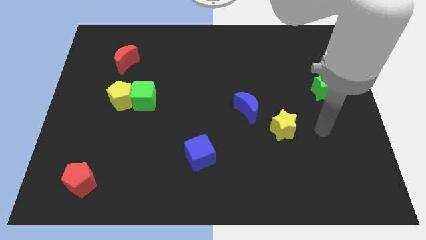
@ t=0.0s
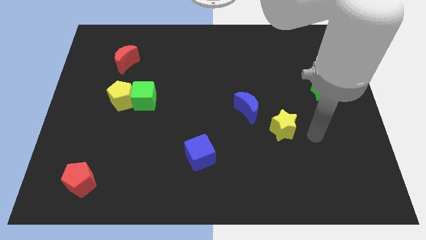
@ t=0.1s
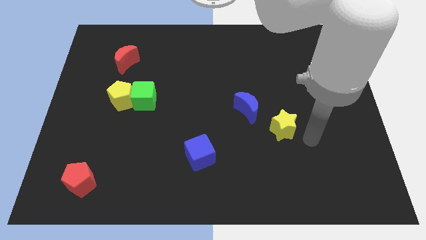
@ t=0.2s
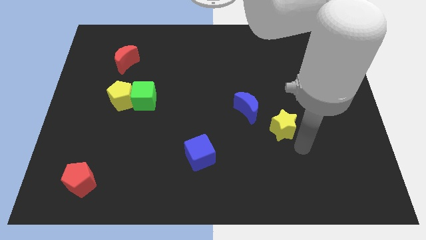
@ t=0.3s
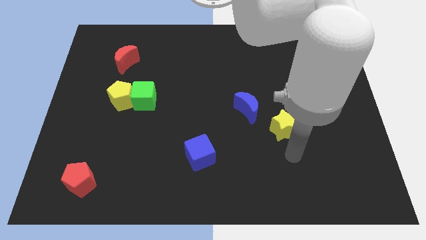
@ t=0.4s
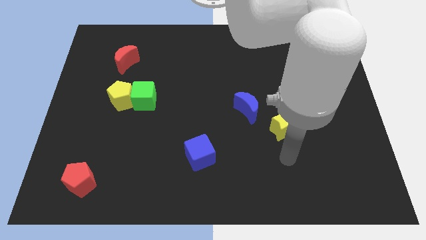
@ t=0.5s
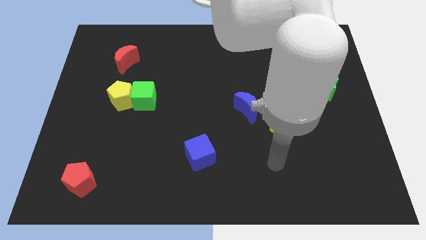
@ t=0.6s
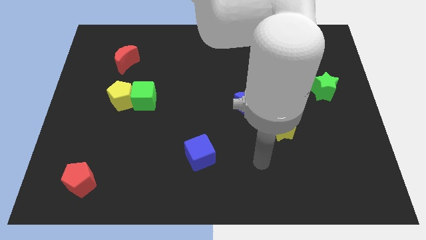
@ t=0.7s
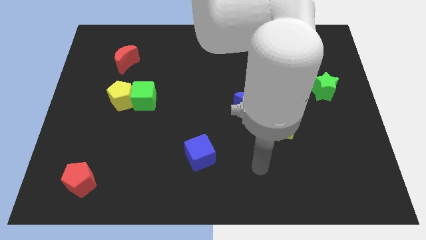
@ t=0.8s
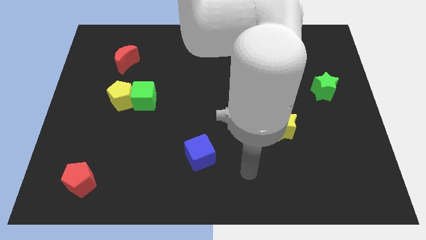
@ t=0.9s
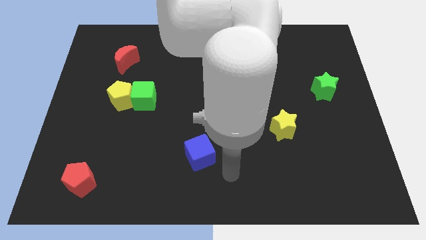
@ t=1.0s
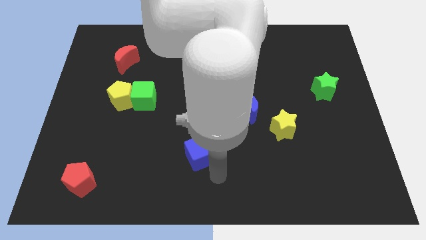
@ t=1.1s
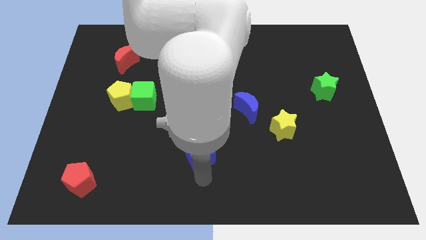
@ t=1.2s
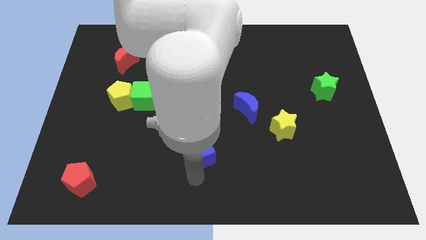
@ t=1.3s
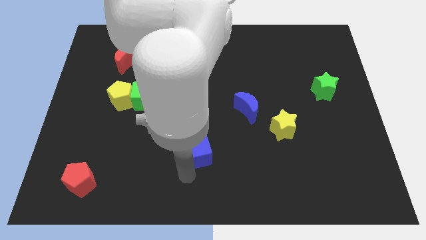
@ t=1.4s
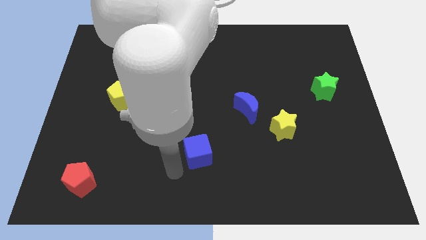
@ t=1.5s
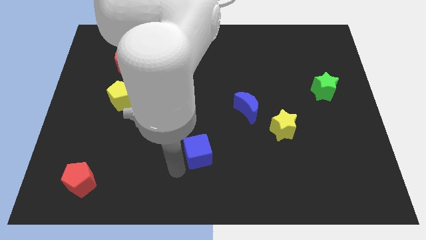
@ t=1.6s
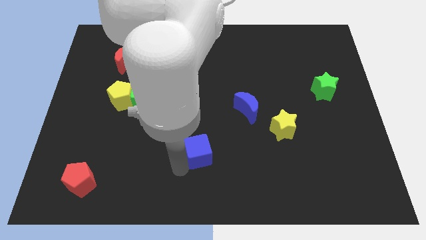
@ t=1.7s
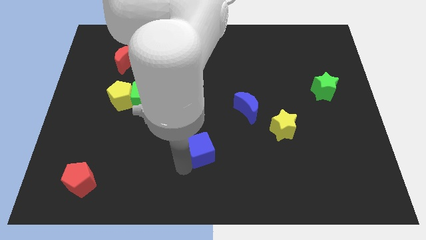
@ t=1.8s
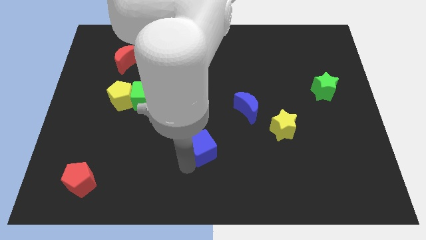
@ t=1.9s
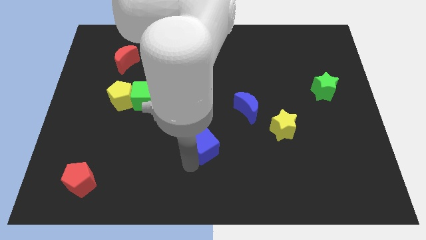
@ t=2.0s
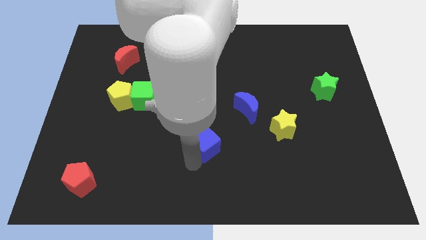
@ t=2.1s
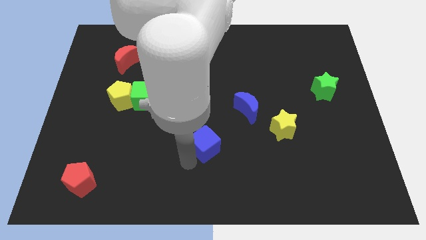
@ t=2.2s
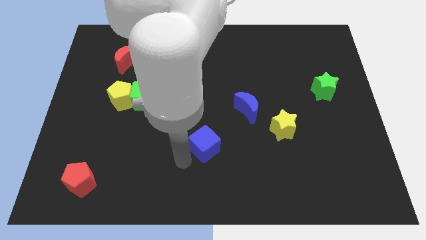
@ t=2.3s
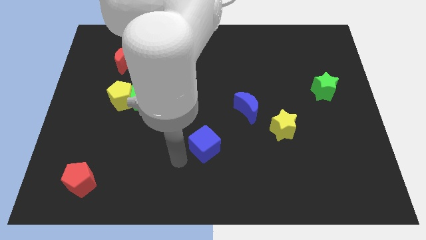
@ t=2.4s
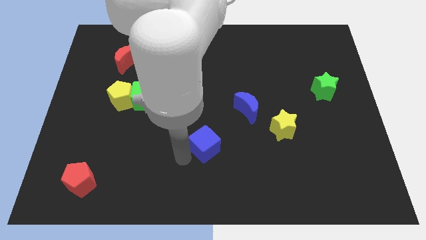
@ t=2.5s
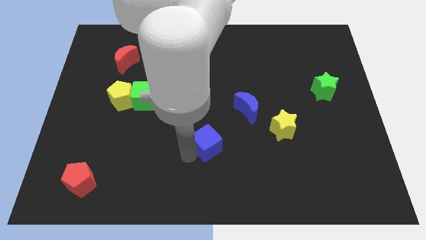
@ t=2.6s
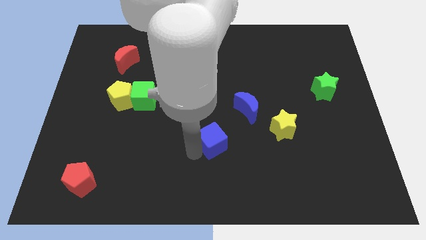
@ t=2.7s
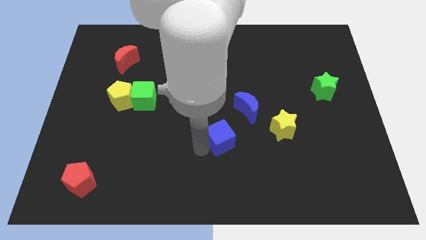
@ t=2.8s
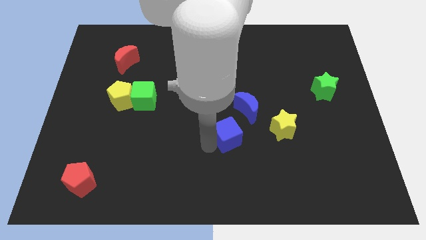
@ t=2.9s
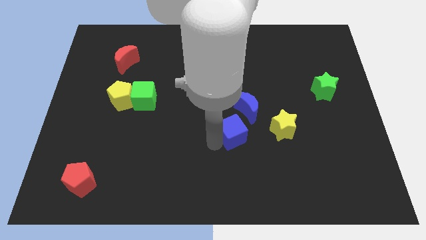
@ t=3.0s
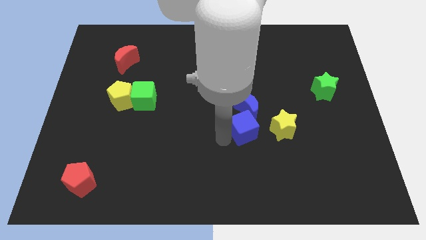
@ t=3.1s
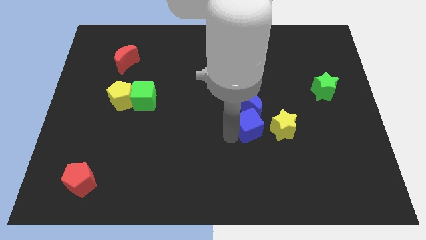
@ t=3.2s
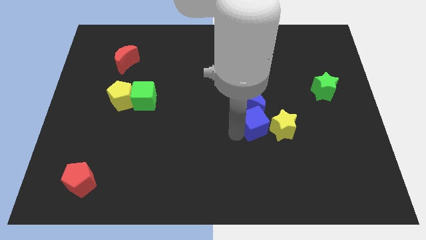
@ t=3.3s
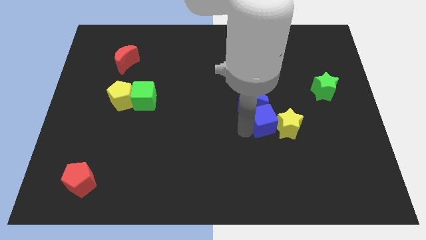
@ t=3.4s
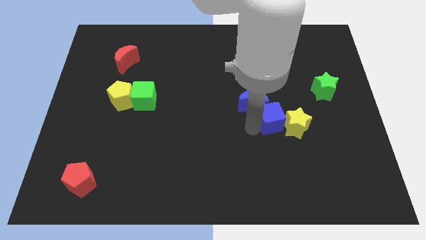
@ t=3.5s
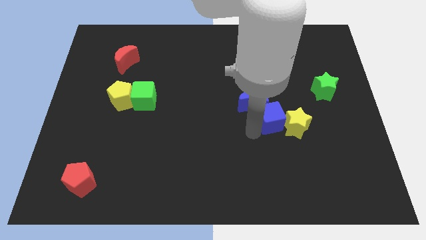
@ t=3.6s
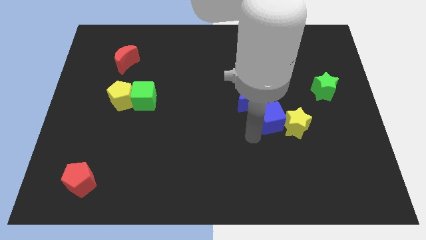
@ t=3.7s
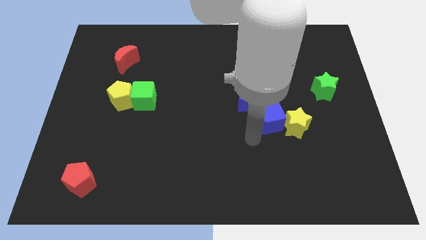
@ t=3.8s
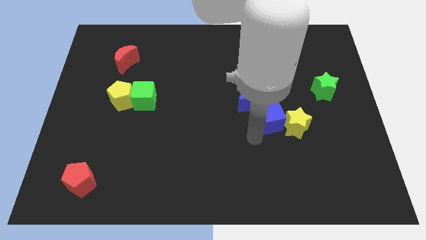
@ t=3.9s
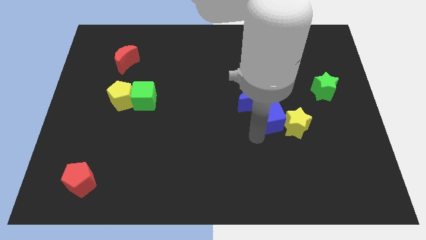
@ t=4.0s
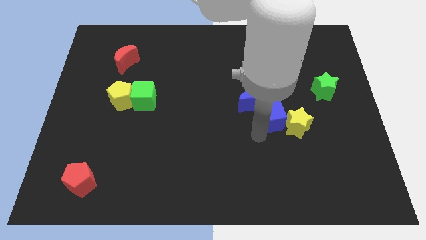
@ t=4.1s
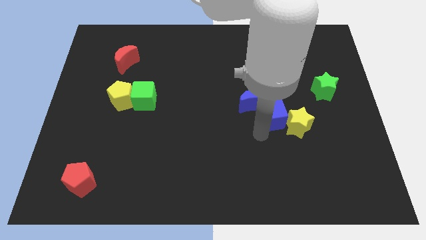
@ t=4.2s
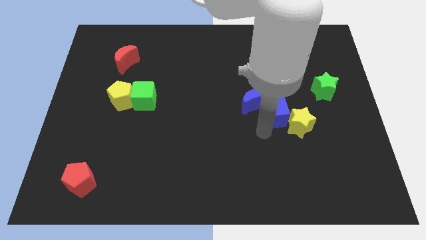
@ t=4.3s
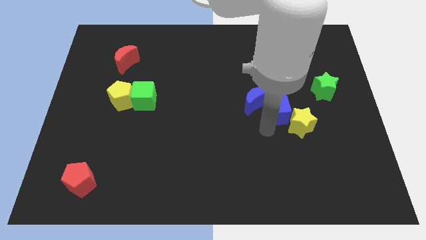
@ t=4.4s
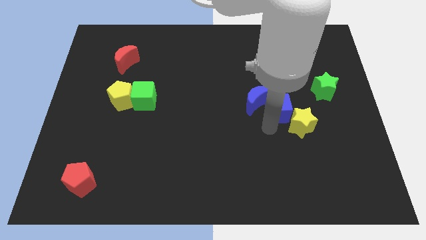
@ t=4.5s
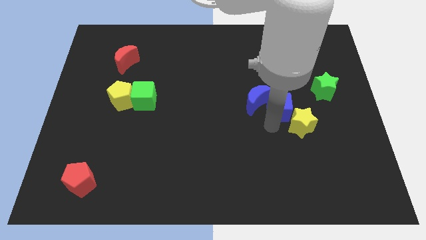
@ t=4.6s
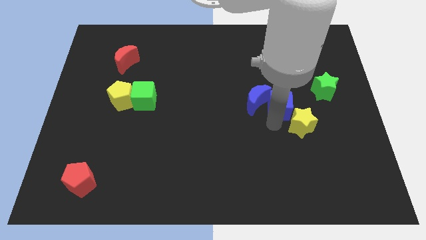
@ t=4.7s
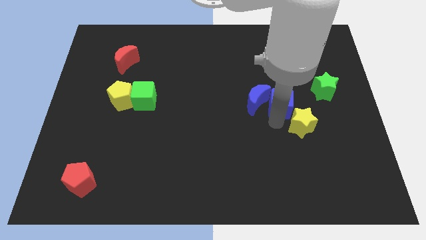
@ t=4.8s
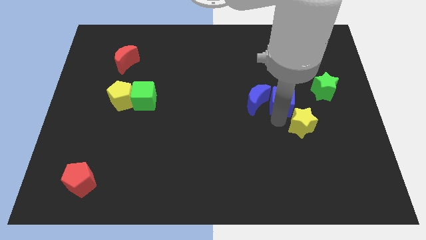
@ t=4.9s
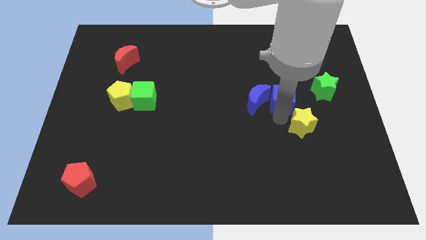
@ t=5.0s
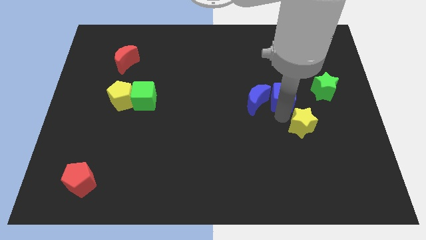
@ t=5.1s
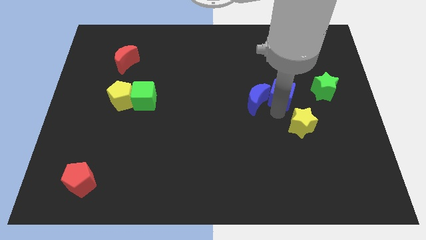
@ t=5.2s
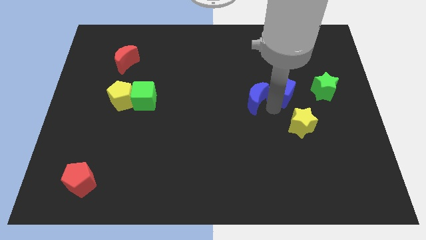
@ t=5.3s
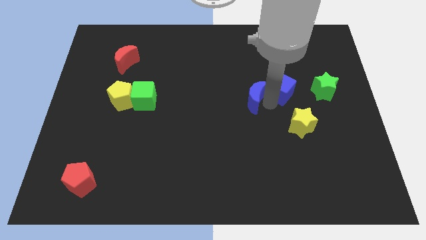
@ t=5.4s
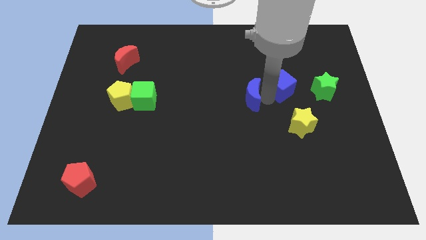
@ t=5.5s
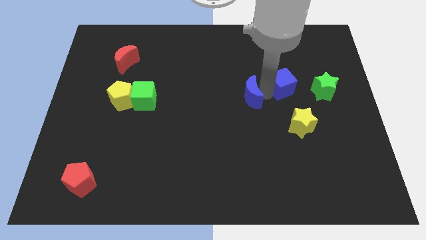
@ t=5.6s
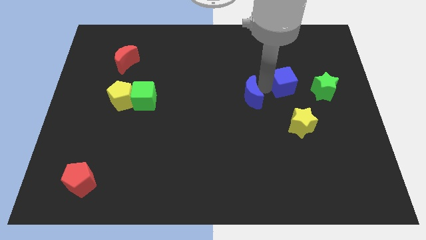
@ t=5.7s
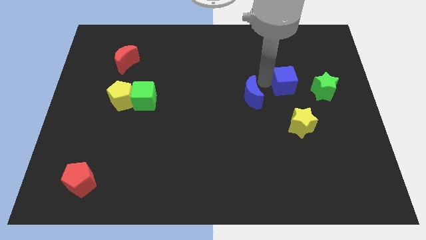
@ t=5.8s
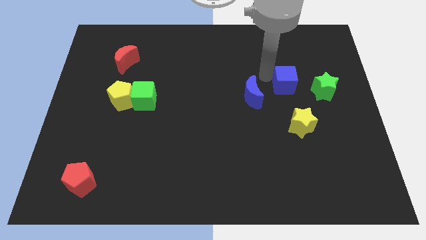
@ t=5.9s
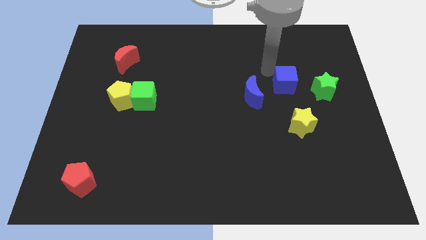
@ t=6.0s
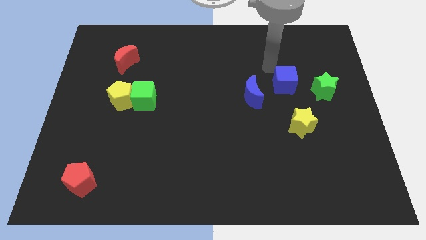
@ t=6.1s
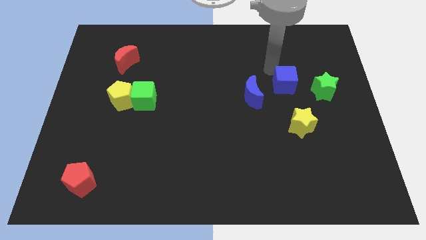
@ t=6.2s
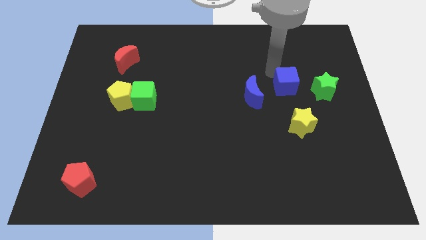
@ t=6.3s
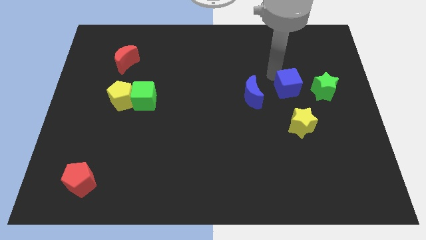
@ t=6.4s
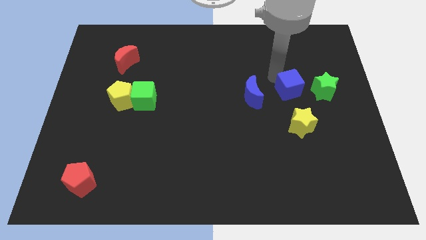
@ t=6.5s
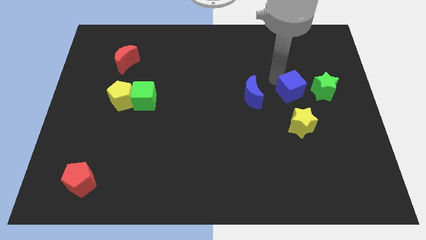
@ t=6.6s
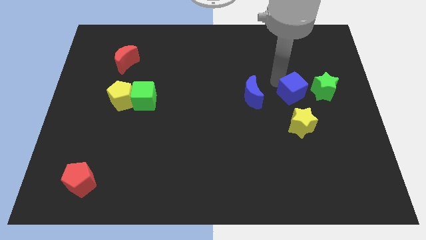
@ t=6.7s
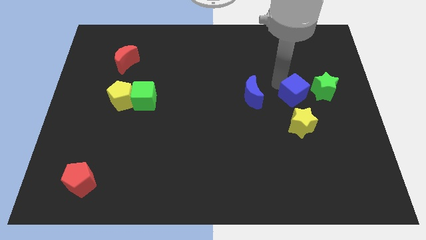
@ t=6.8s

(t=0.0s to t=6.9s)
push the blue cube to the bottom left of the green star

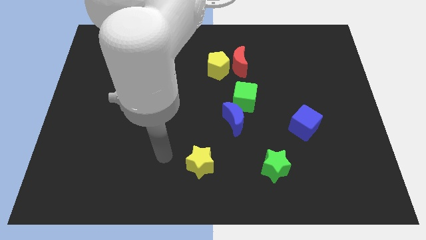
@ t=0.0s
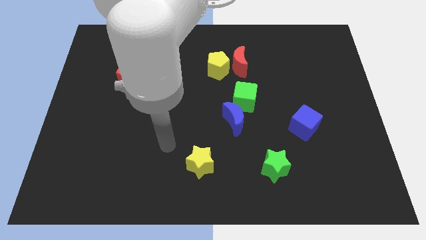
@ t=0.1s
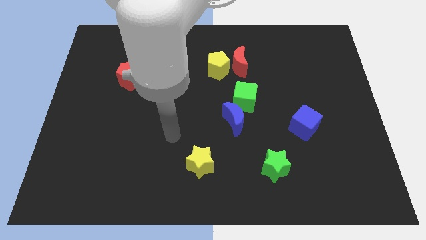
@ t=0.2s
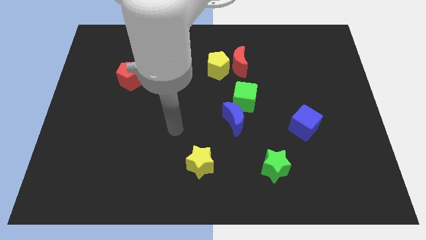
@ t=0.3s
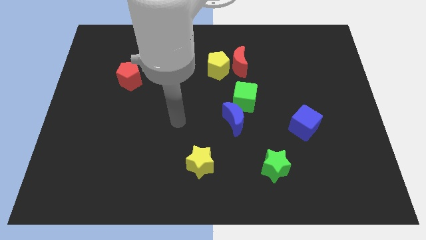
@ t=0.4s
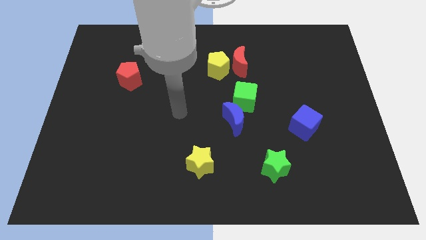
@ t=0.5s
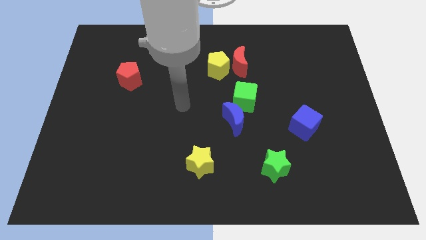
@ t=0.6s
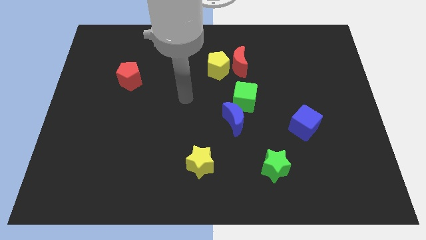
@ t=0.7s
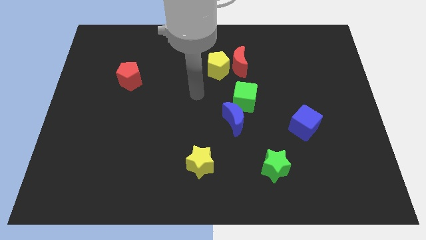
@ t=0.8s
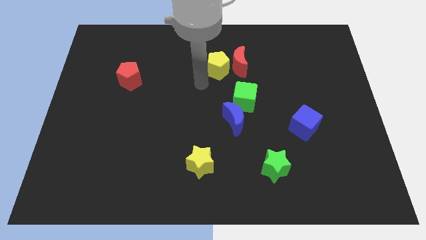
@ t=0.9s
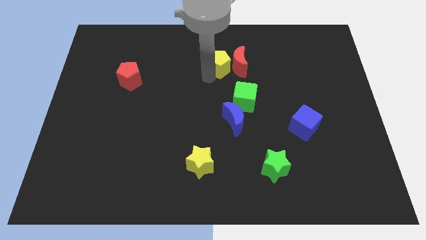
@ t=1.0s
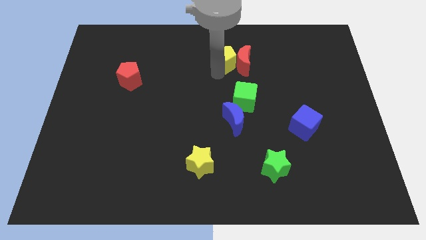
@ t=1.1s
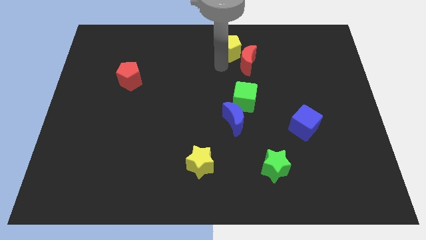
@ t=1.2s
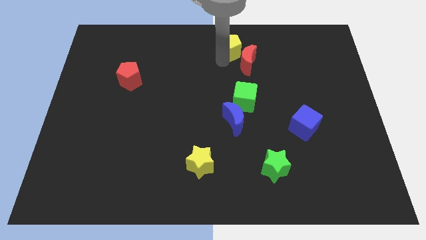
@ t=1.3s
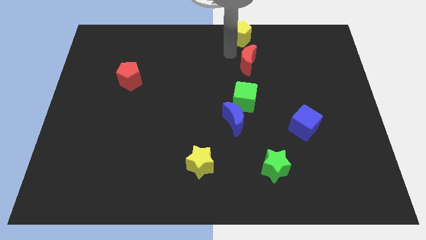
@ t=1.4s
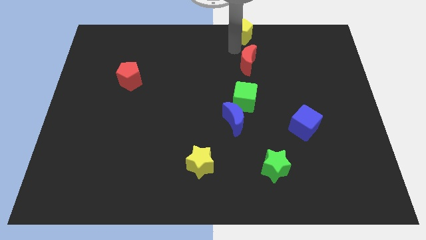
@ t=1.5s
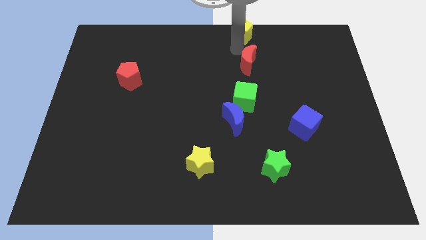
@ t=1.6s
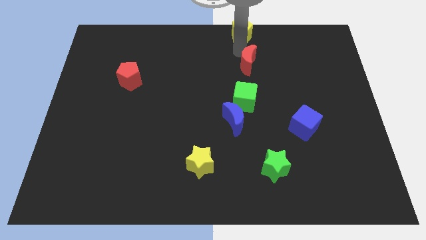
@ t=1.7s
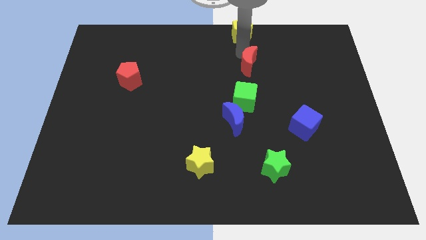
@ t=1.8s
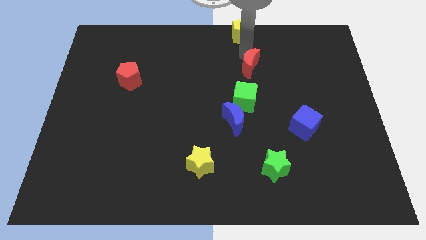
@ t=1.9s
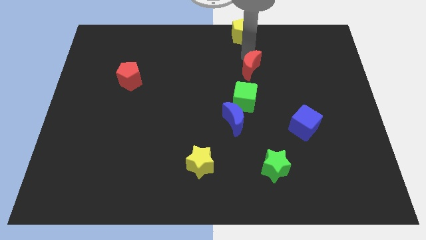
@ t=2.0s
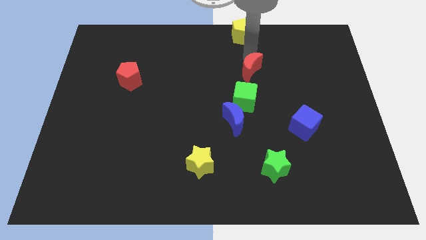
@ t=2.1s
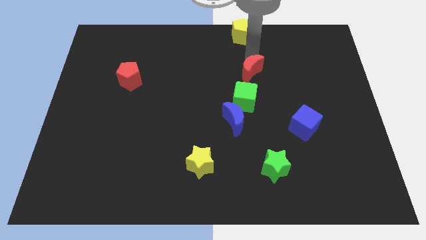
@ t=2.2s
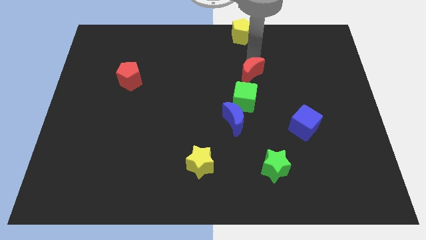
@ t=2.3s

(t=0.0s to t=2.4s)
slide the red moon diagonally up and to the right of the green cube
